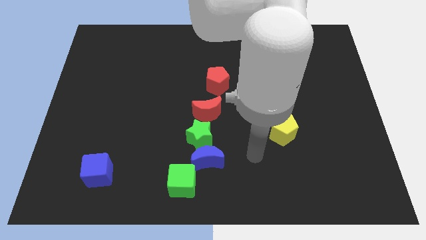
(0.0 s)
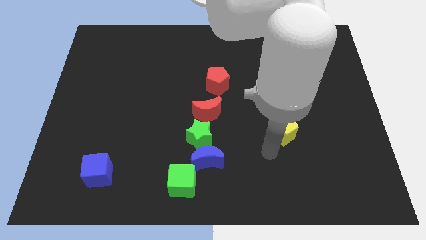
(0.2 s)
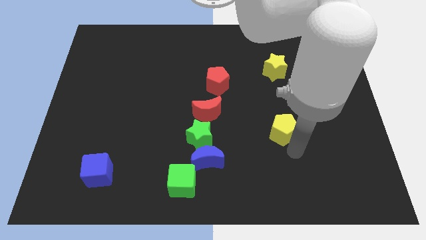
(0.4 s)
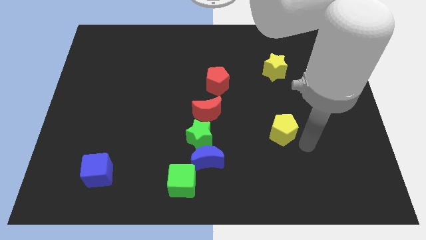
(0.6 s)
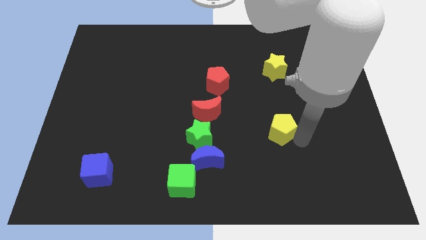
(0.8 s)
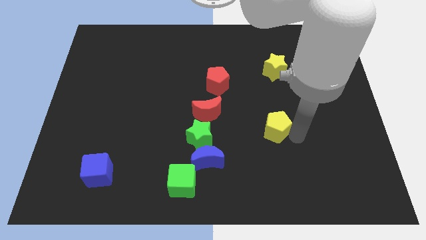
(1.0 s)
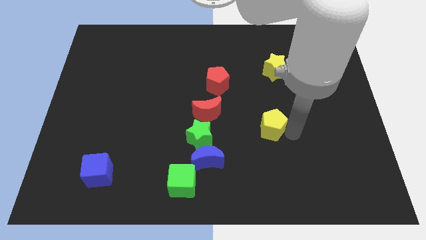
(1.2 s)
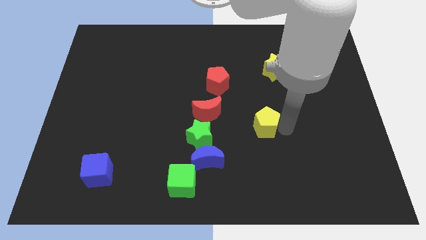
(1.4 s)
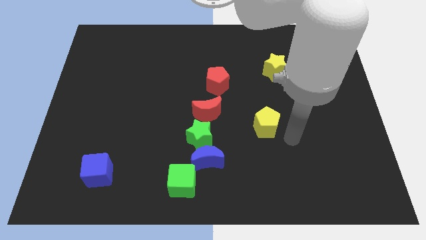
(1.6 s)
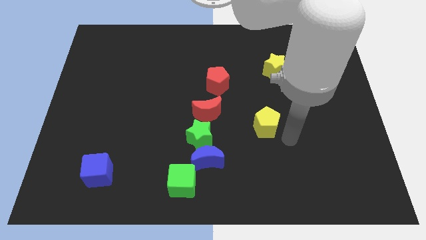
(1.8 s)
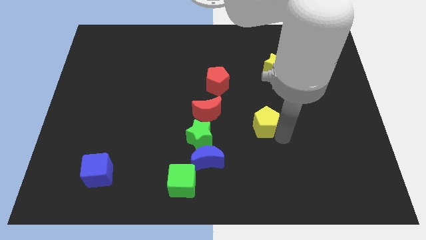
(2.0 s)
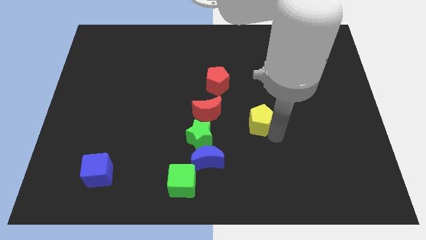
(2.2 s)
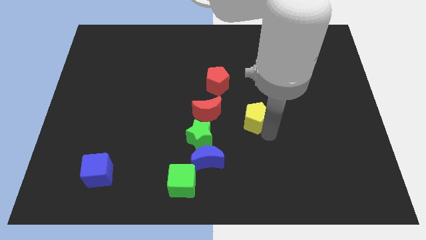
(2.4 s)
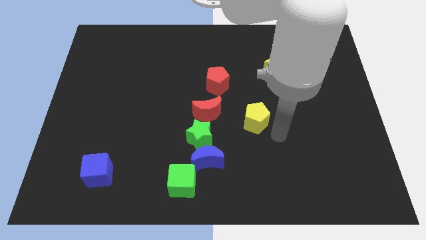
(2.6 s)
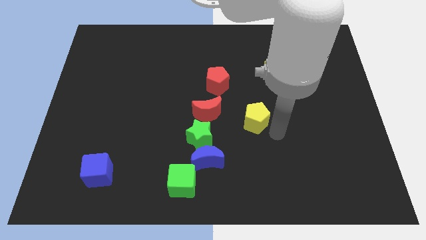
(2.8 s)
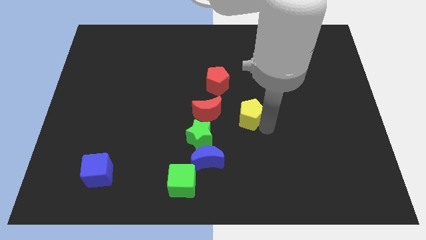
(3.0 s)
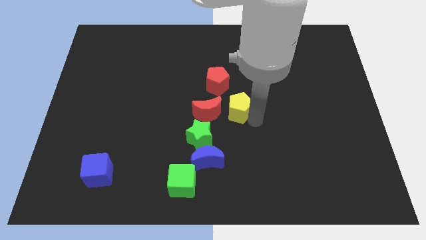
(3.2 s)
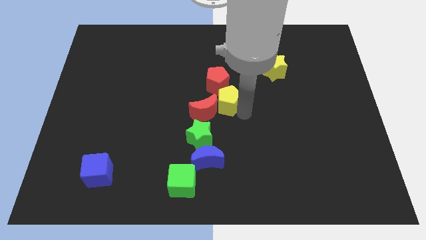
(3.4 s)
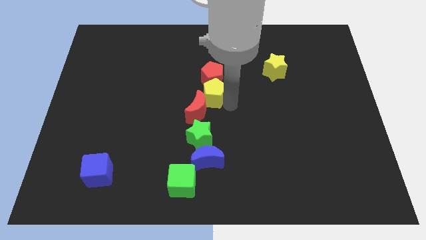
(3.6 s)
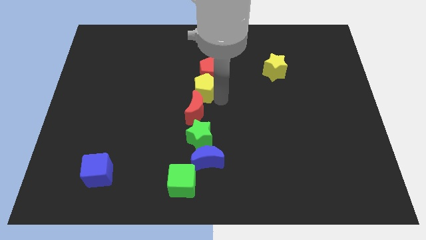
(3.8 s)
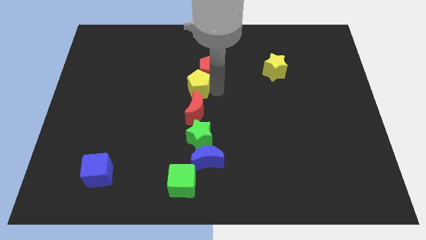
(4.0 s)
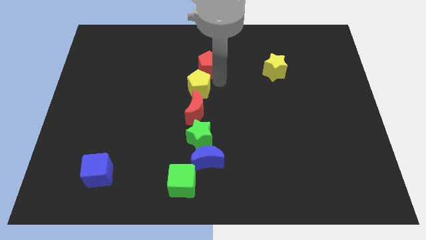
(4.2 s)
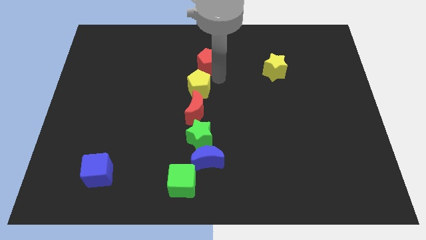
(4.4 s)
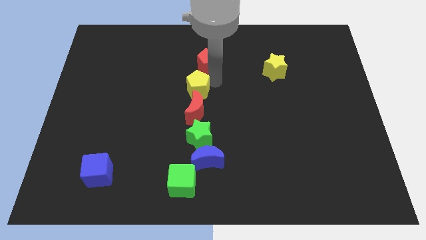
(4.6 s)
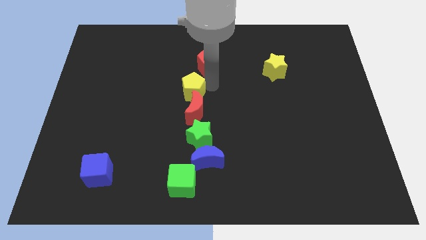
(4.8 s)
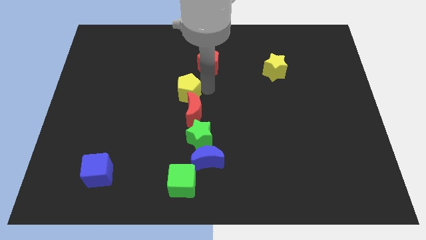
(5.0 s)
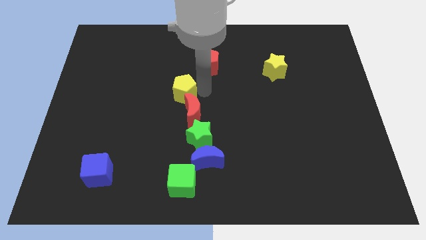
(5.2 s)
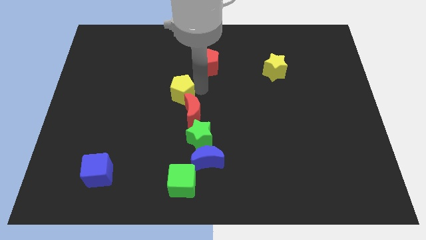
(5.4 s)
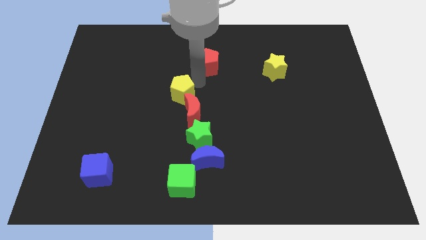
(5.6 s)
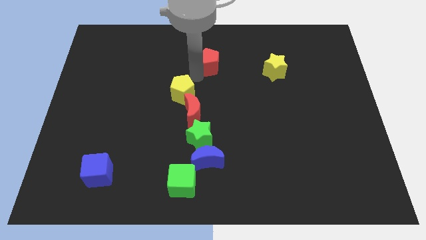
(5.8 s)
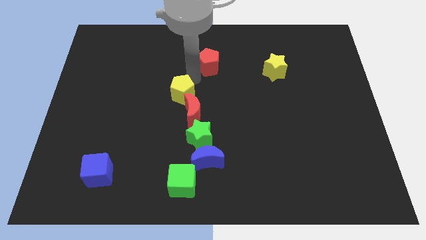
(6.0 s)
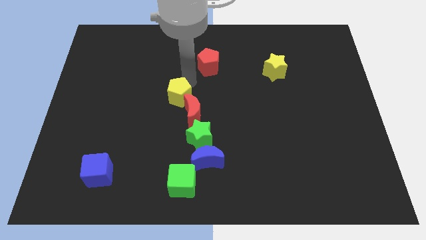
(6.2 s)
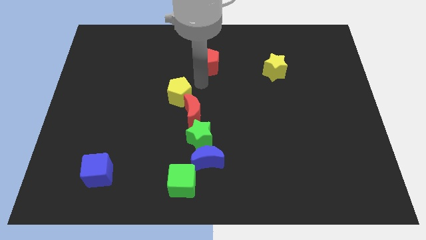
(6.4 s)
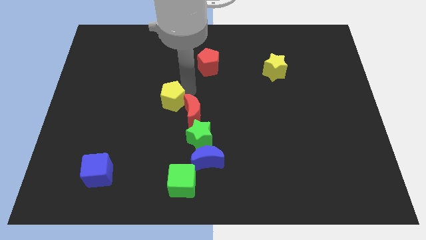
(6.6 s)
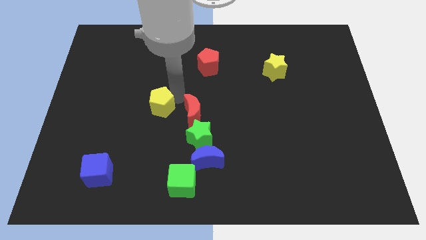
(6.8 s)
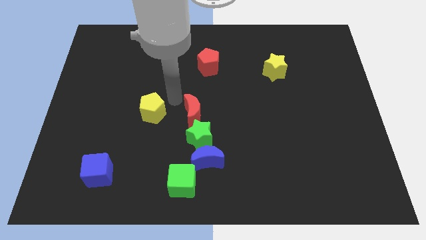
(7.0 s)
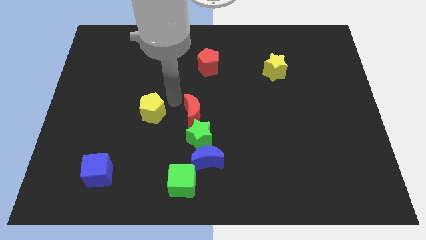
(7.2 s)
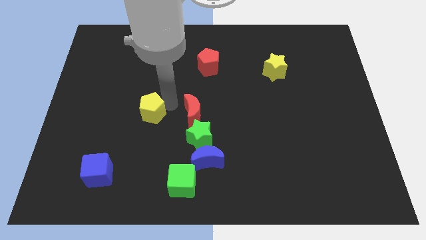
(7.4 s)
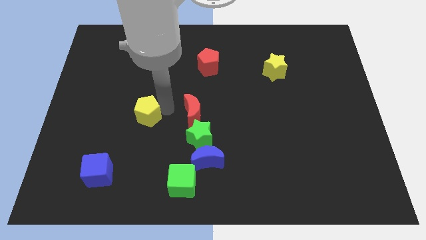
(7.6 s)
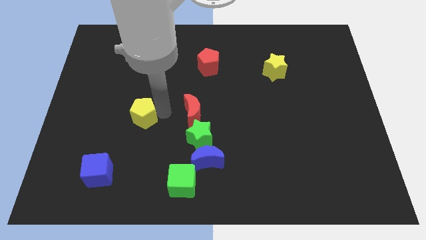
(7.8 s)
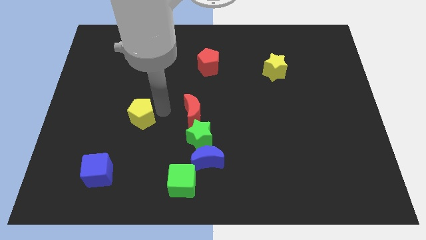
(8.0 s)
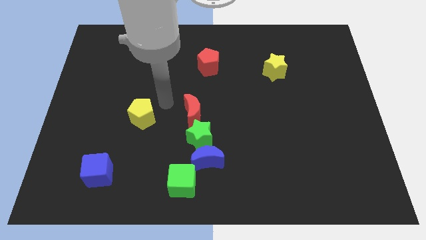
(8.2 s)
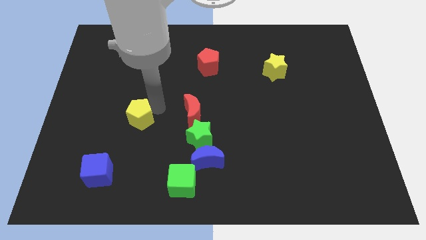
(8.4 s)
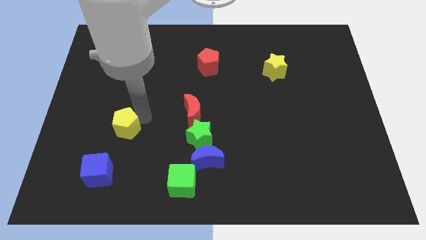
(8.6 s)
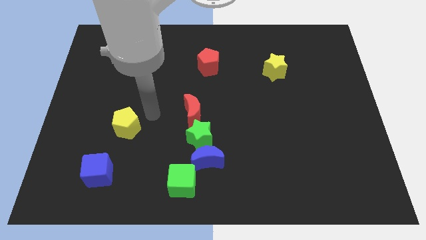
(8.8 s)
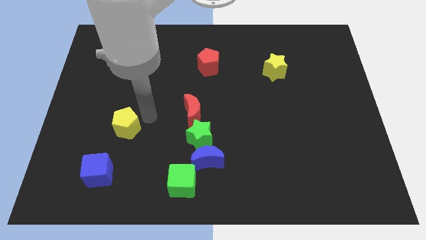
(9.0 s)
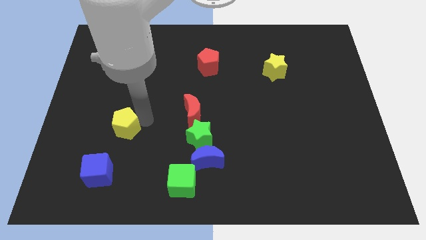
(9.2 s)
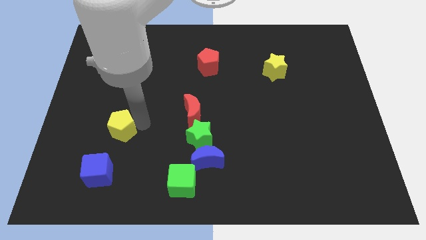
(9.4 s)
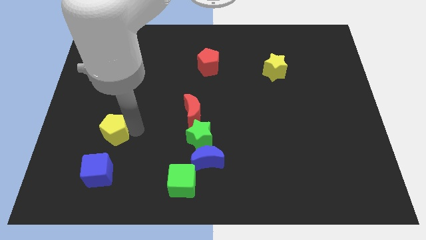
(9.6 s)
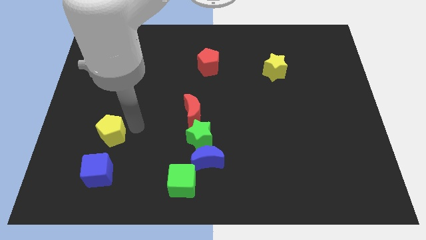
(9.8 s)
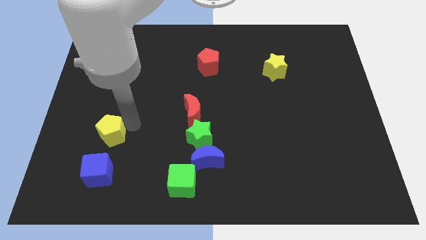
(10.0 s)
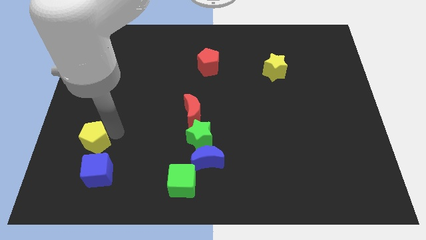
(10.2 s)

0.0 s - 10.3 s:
move the yellow pentagon to the top left of the blue cube

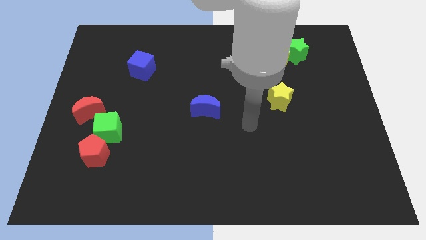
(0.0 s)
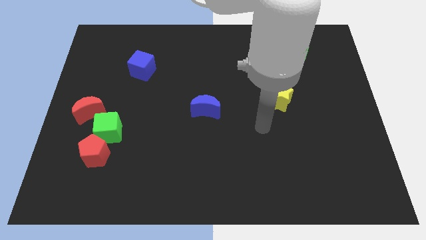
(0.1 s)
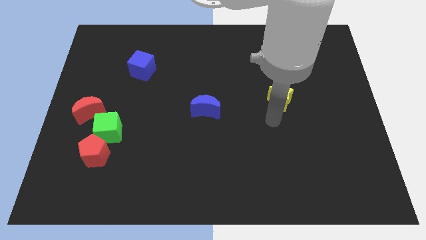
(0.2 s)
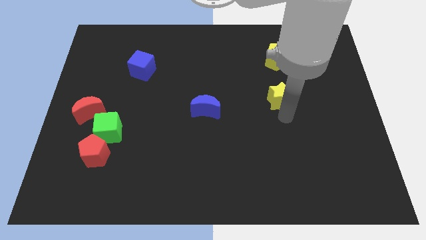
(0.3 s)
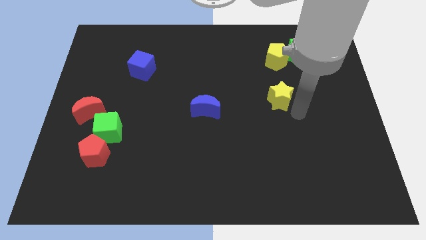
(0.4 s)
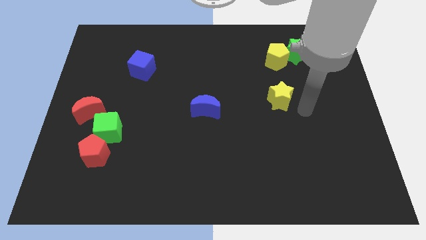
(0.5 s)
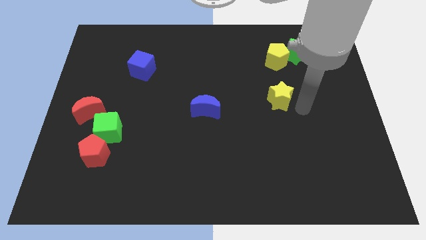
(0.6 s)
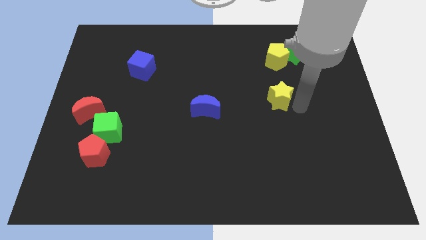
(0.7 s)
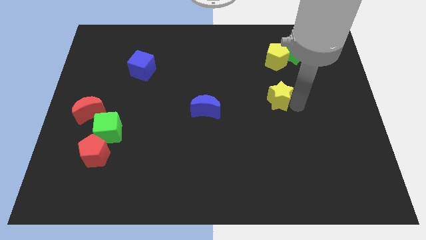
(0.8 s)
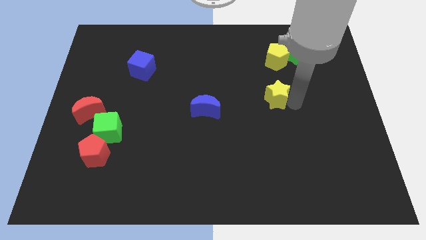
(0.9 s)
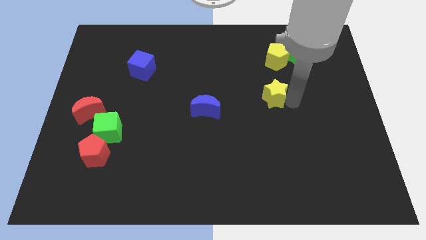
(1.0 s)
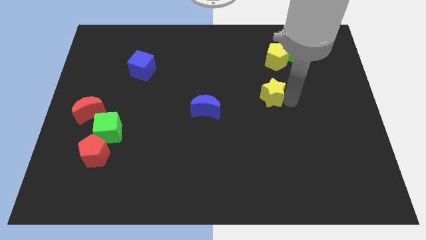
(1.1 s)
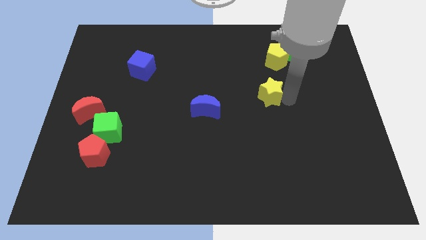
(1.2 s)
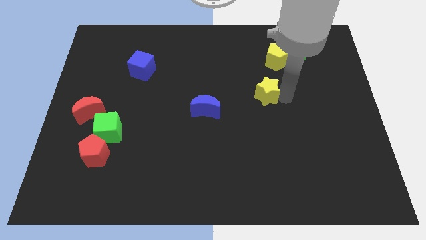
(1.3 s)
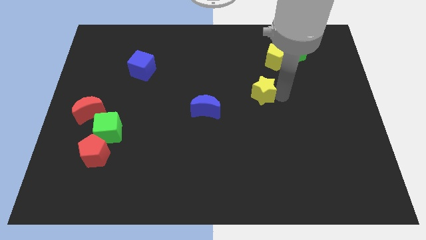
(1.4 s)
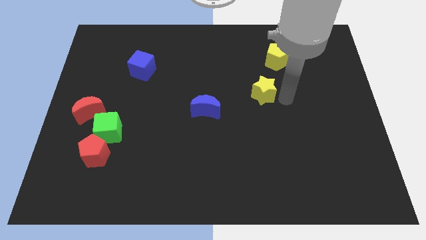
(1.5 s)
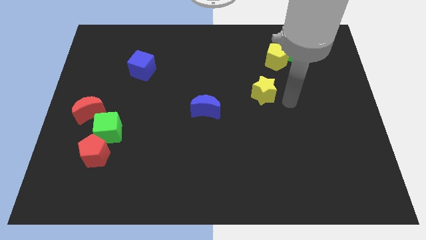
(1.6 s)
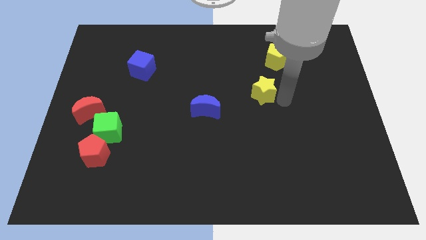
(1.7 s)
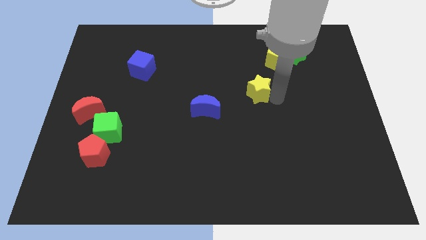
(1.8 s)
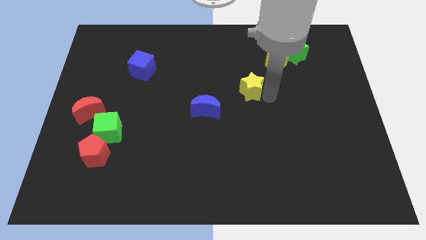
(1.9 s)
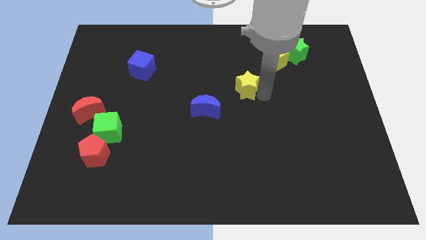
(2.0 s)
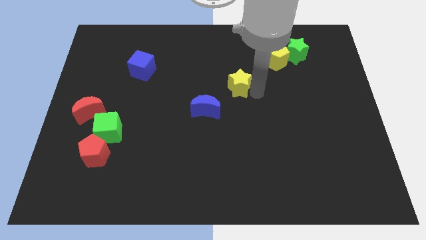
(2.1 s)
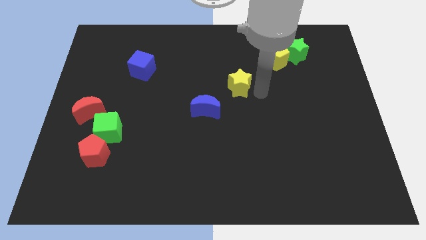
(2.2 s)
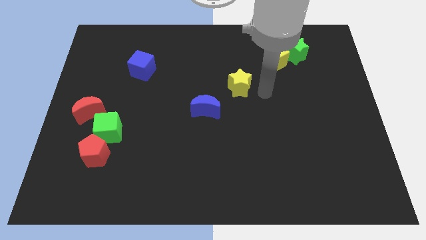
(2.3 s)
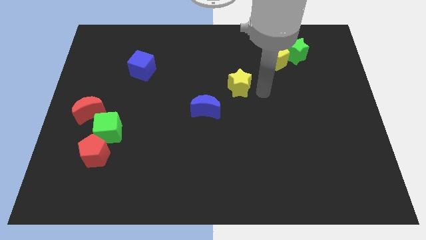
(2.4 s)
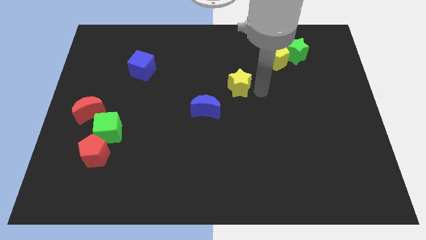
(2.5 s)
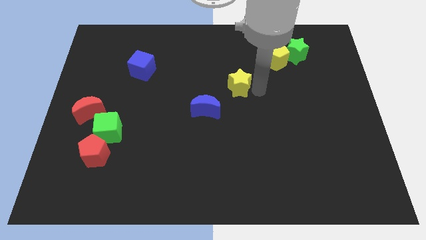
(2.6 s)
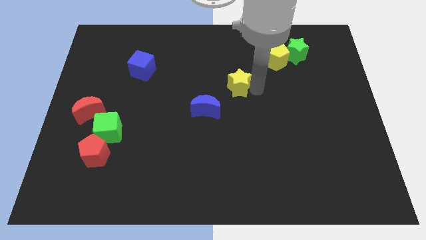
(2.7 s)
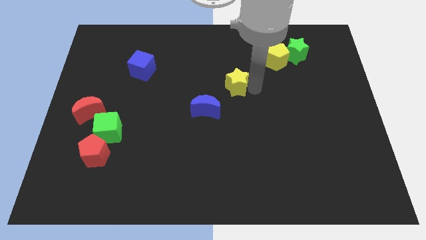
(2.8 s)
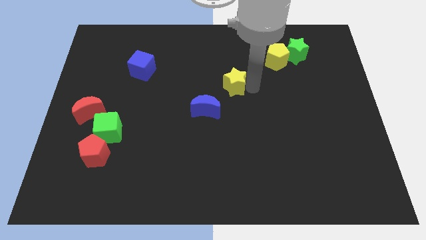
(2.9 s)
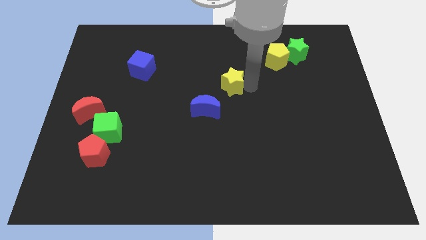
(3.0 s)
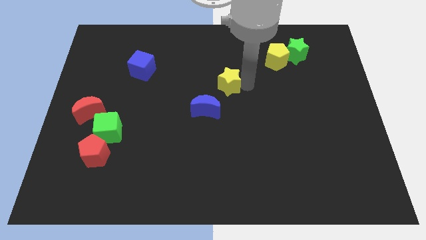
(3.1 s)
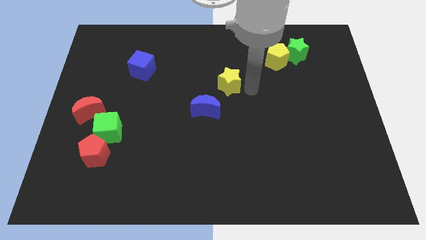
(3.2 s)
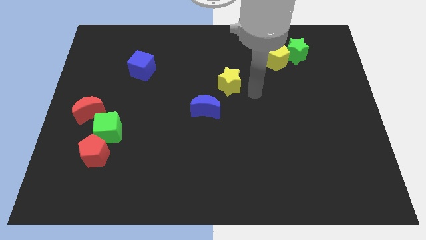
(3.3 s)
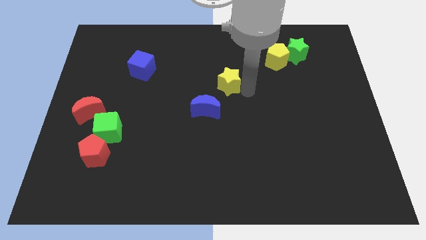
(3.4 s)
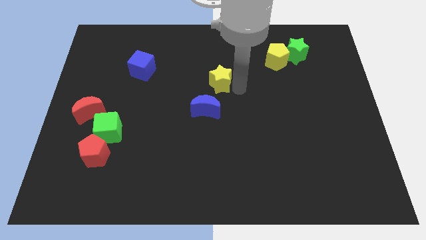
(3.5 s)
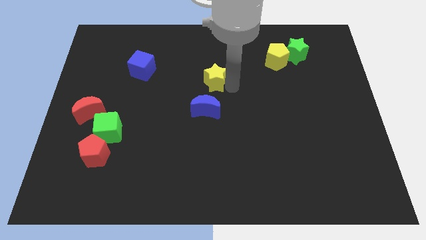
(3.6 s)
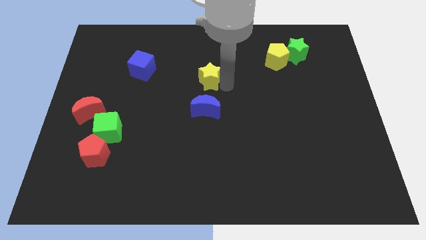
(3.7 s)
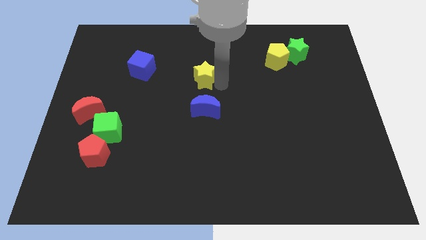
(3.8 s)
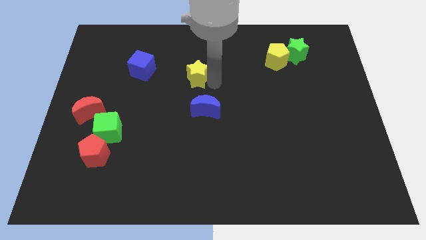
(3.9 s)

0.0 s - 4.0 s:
move the yellow star to the right side of the blue cube
